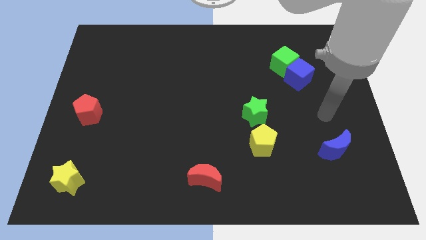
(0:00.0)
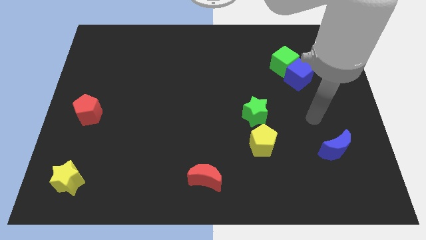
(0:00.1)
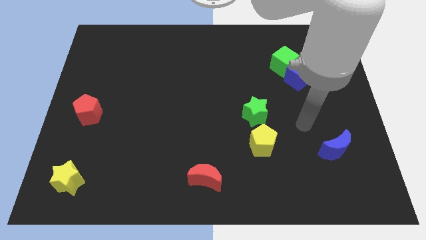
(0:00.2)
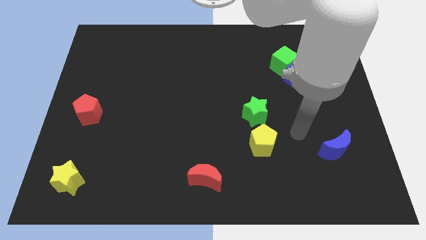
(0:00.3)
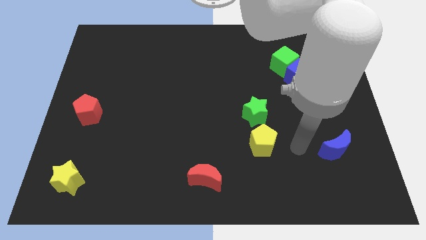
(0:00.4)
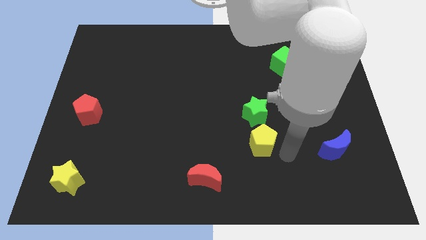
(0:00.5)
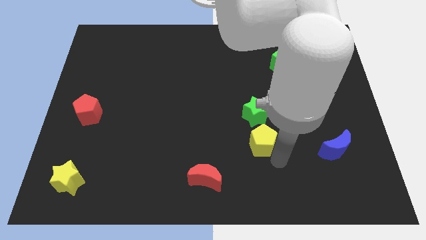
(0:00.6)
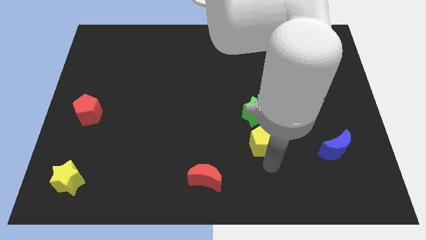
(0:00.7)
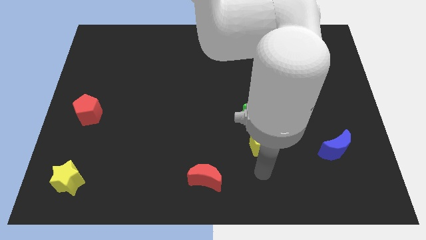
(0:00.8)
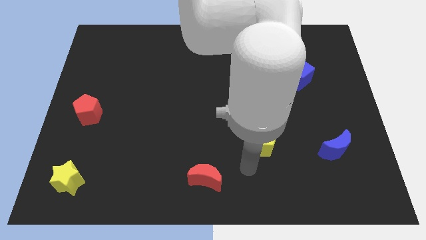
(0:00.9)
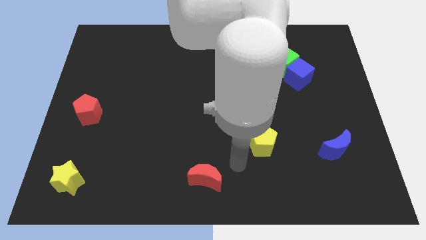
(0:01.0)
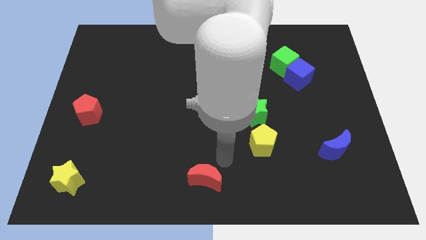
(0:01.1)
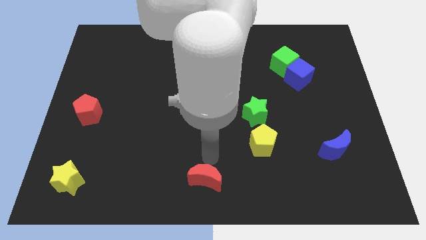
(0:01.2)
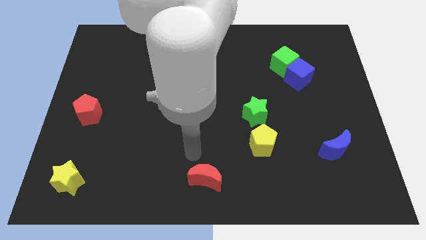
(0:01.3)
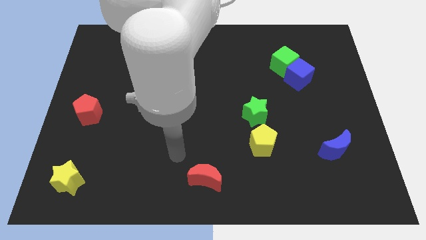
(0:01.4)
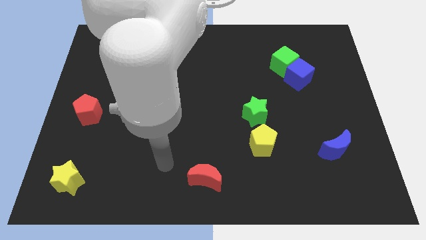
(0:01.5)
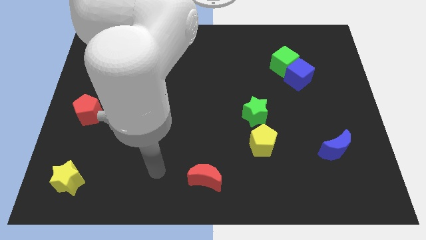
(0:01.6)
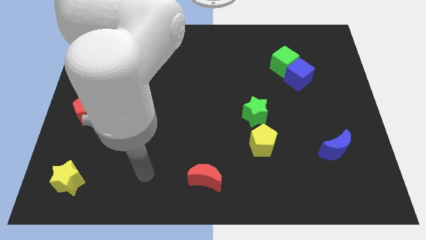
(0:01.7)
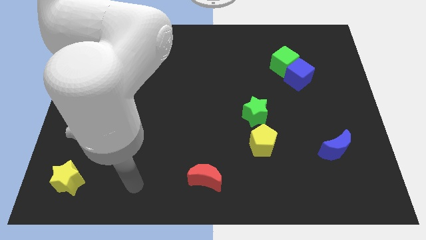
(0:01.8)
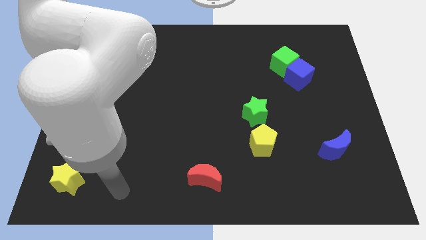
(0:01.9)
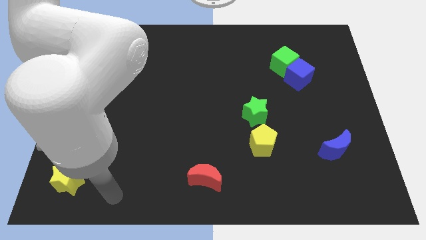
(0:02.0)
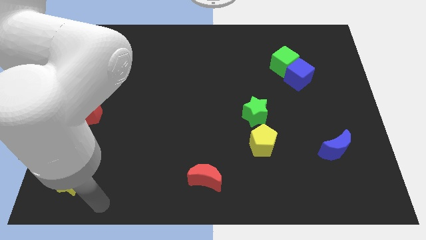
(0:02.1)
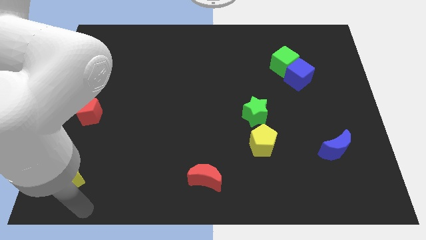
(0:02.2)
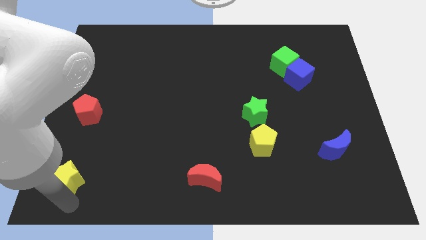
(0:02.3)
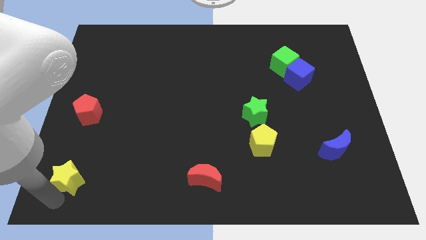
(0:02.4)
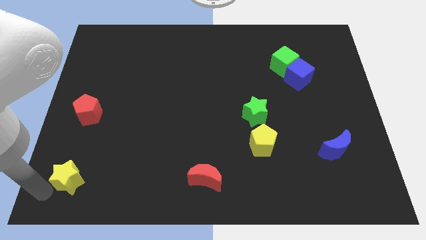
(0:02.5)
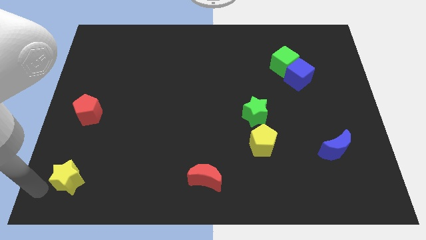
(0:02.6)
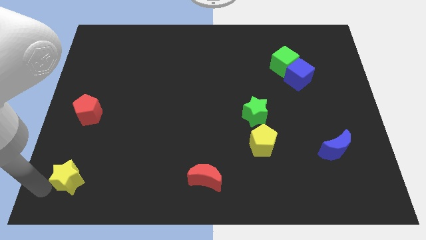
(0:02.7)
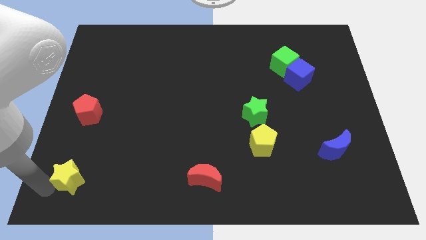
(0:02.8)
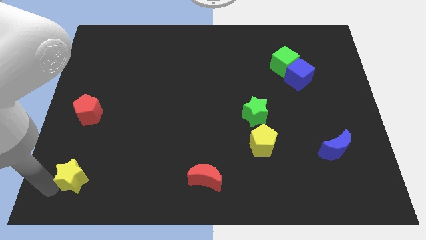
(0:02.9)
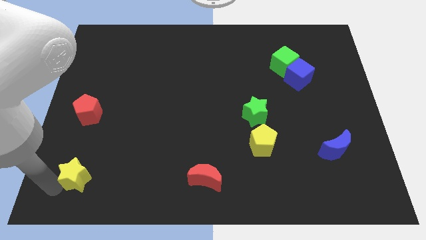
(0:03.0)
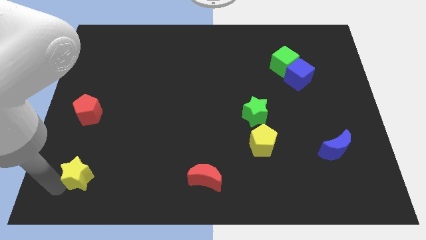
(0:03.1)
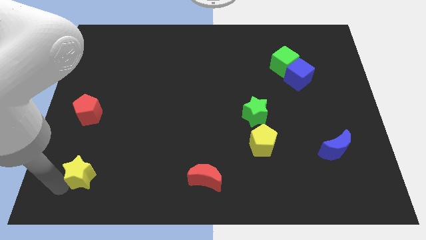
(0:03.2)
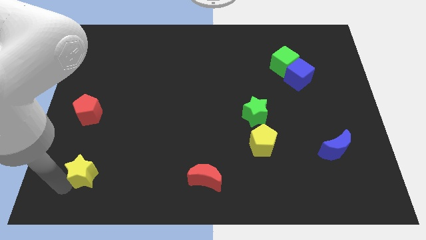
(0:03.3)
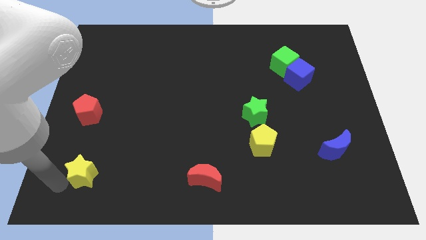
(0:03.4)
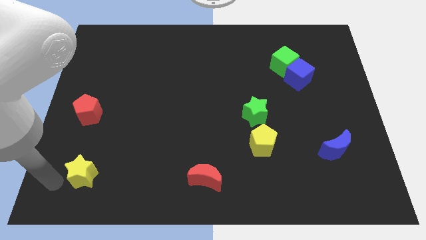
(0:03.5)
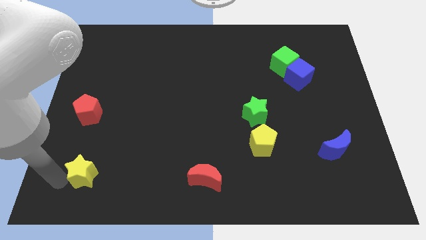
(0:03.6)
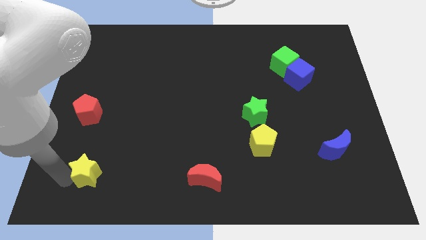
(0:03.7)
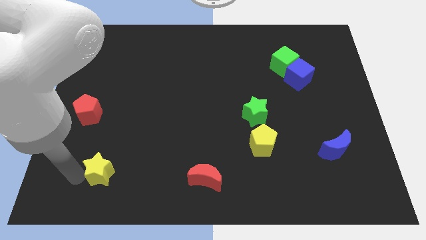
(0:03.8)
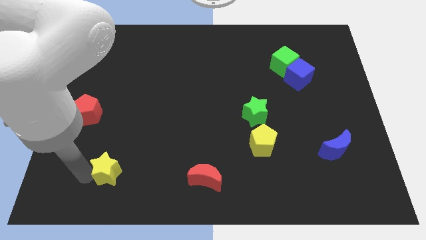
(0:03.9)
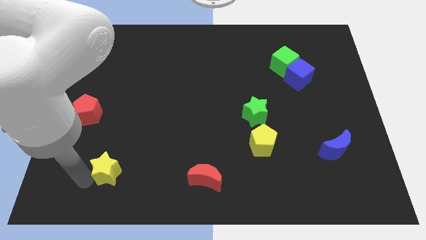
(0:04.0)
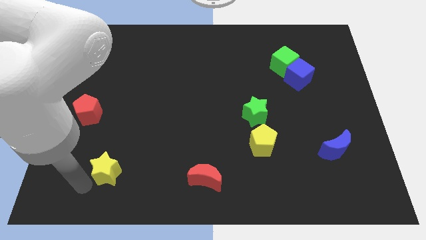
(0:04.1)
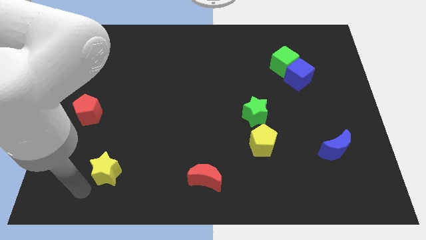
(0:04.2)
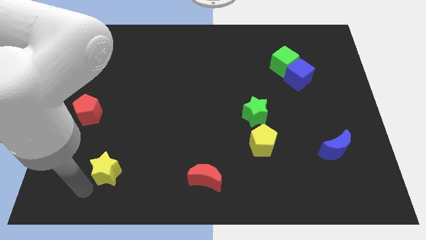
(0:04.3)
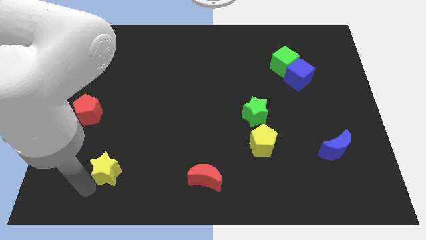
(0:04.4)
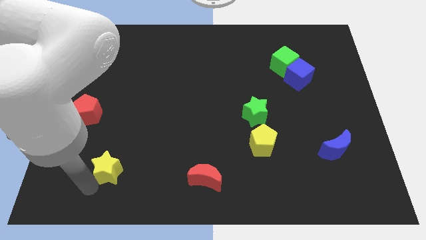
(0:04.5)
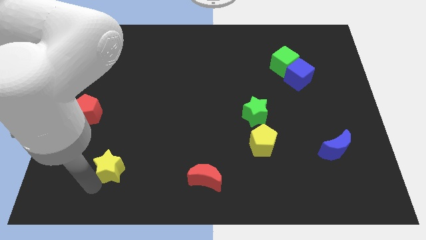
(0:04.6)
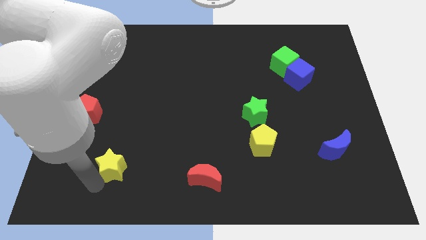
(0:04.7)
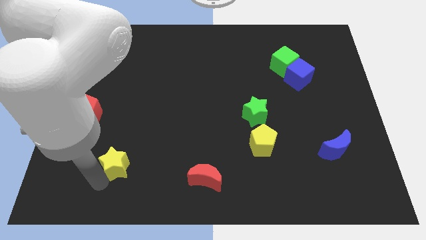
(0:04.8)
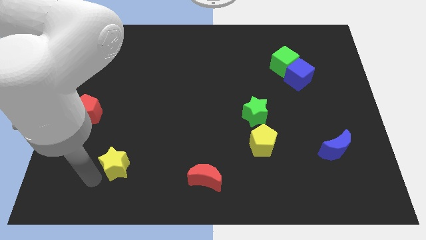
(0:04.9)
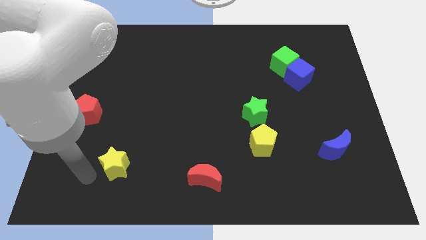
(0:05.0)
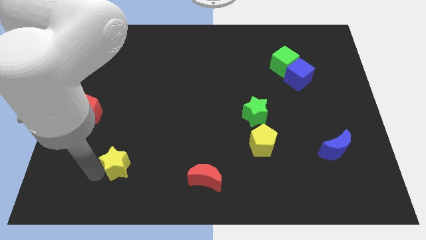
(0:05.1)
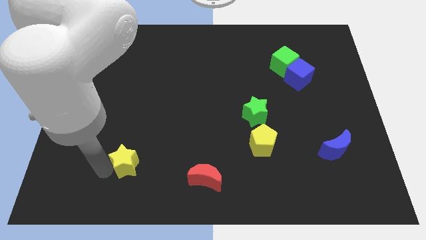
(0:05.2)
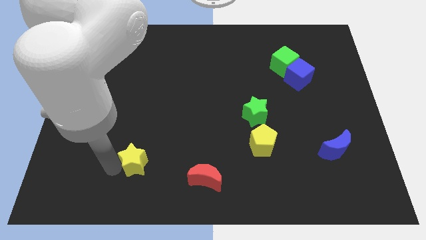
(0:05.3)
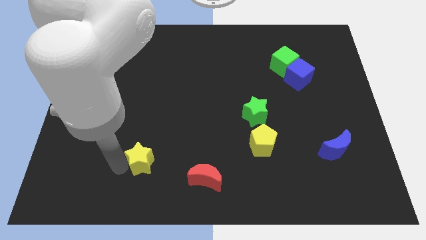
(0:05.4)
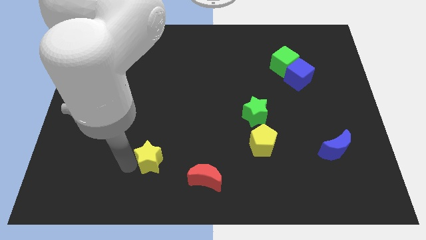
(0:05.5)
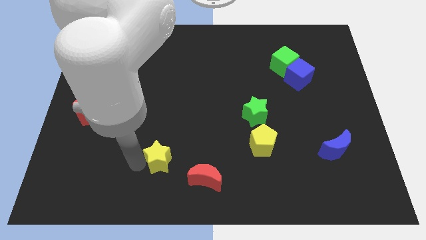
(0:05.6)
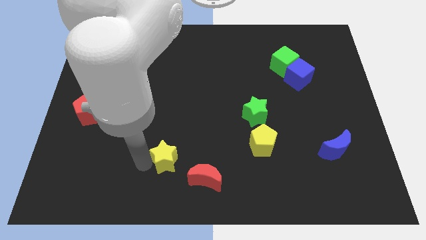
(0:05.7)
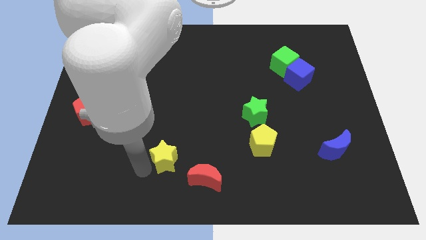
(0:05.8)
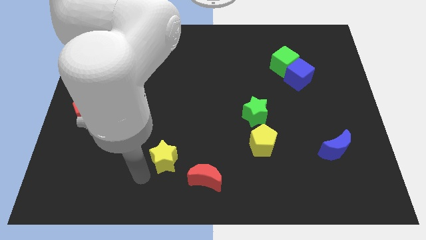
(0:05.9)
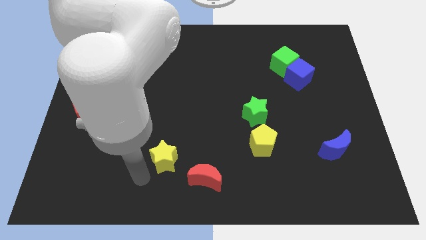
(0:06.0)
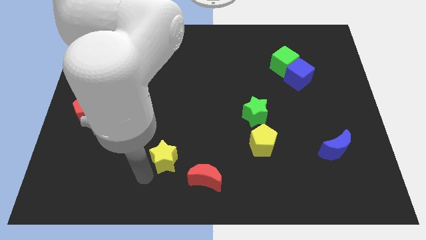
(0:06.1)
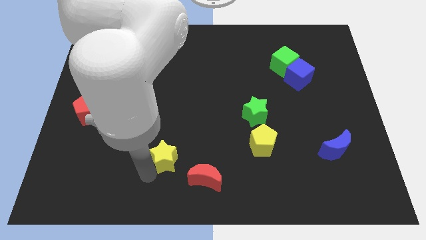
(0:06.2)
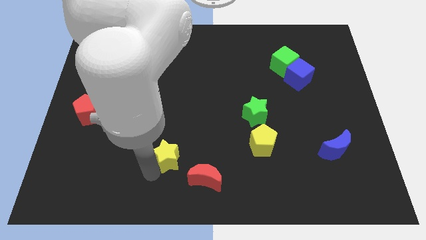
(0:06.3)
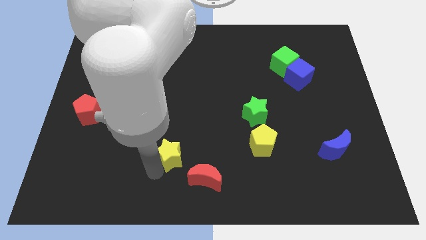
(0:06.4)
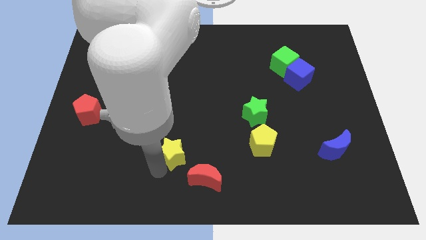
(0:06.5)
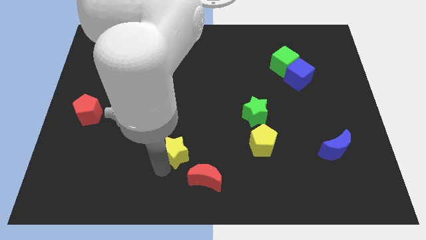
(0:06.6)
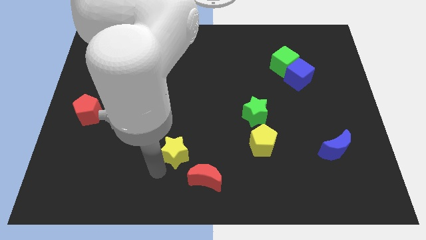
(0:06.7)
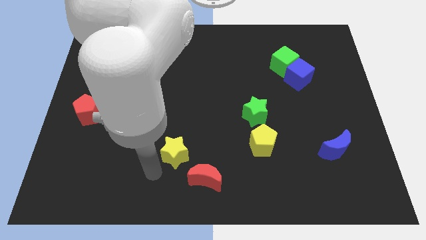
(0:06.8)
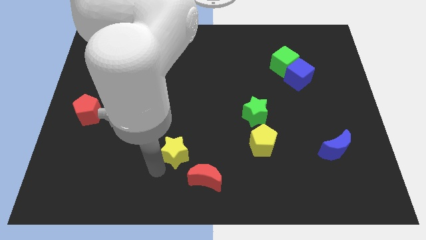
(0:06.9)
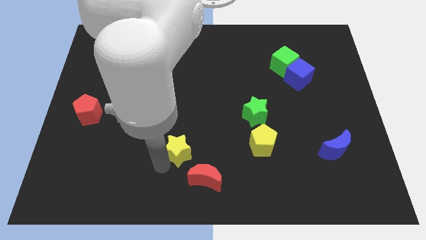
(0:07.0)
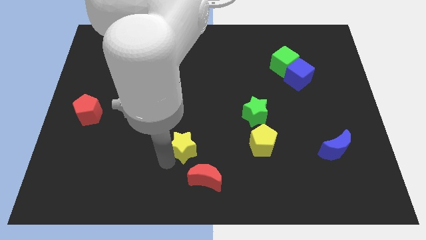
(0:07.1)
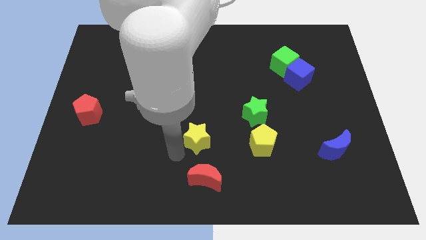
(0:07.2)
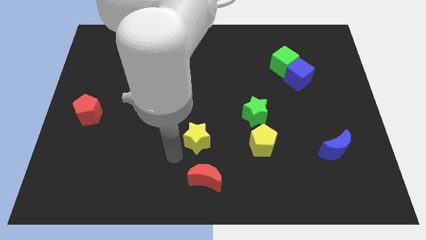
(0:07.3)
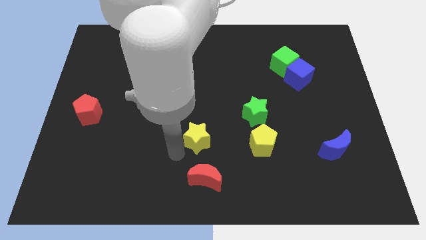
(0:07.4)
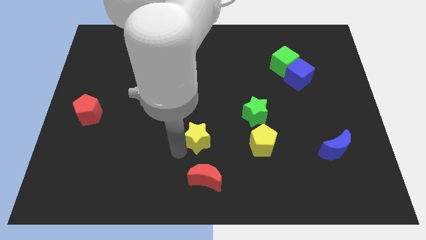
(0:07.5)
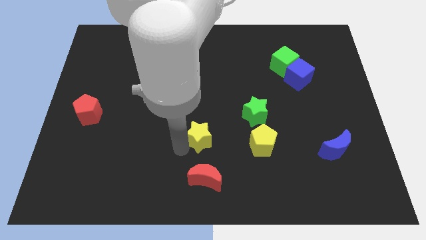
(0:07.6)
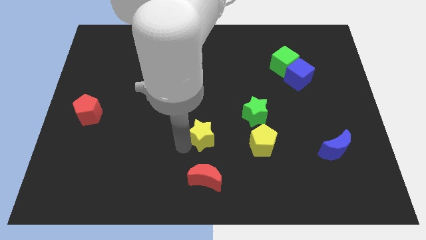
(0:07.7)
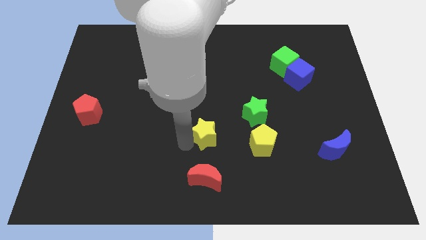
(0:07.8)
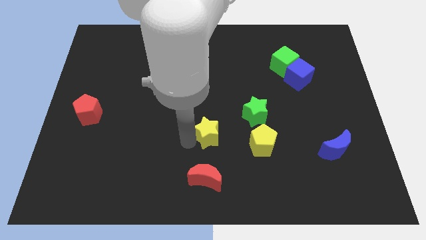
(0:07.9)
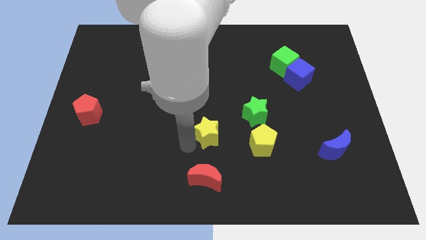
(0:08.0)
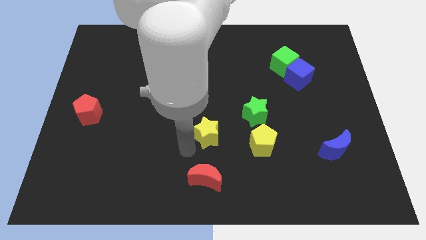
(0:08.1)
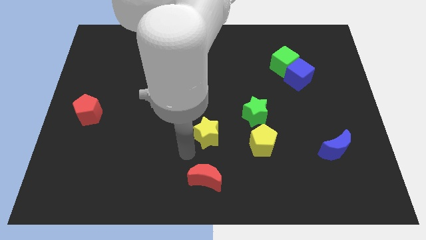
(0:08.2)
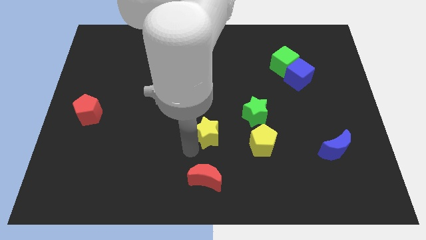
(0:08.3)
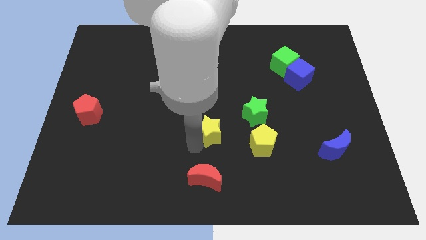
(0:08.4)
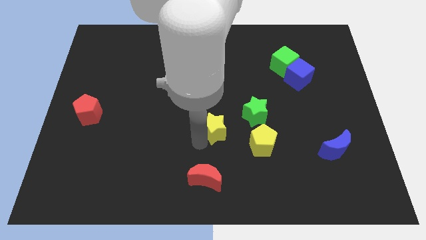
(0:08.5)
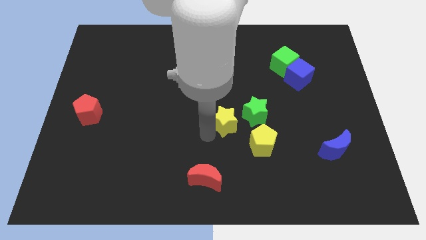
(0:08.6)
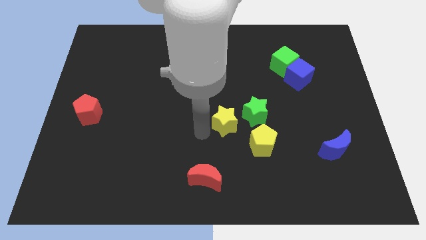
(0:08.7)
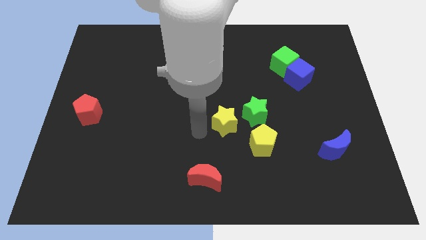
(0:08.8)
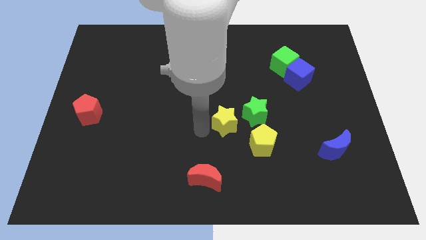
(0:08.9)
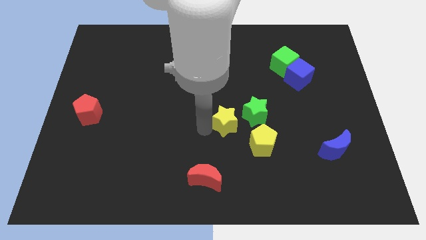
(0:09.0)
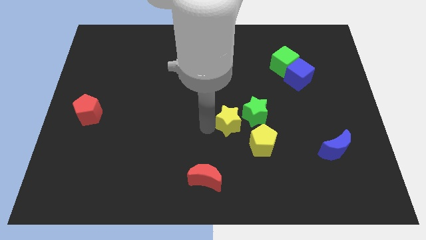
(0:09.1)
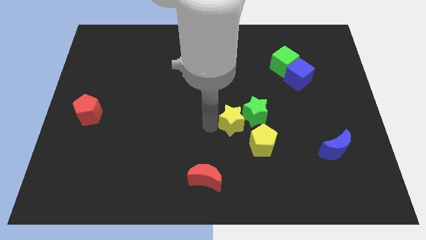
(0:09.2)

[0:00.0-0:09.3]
put the yellow star next to the green star
